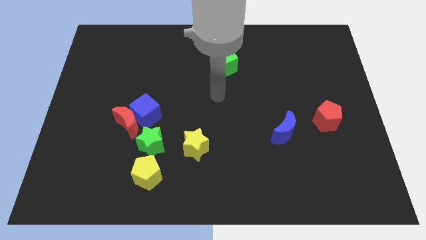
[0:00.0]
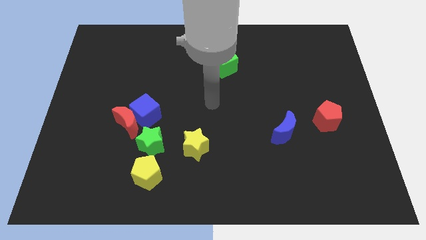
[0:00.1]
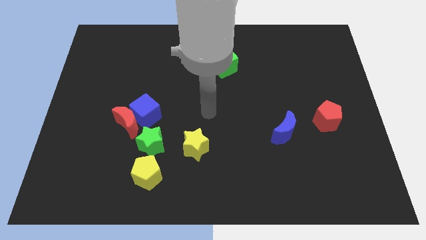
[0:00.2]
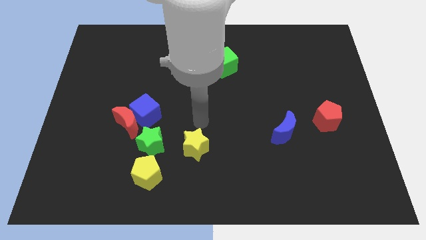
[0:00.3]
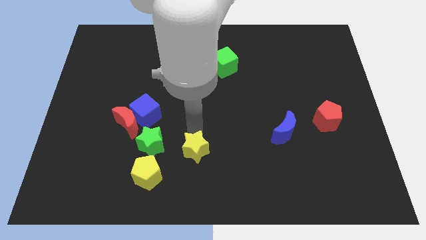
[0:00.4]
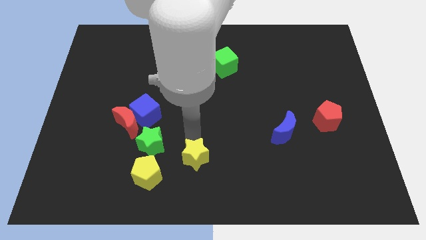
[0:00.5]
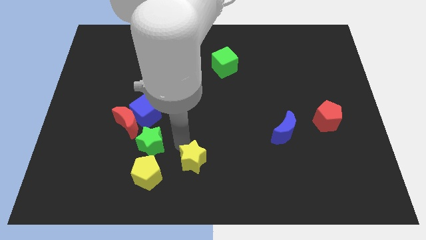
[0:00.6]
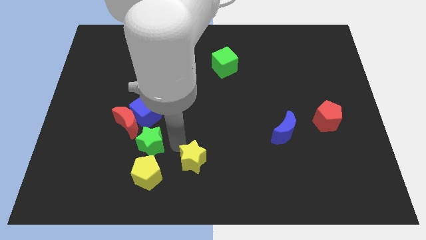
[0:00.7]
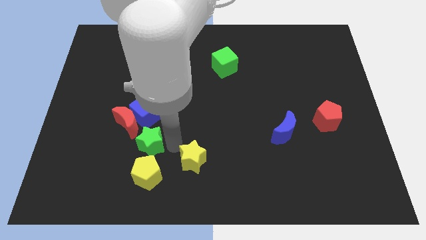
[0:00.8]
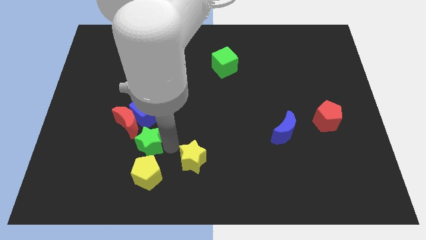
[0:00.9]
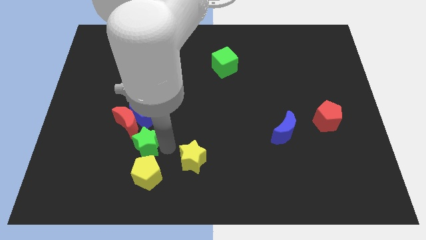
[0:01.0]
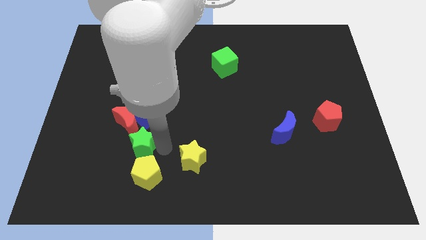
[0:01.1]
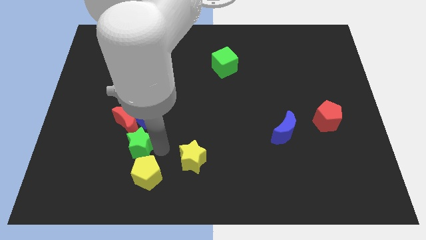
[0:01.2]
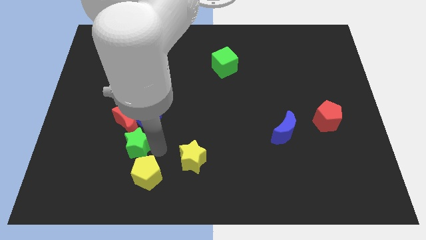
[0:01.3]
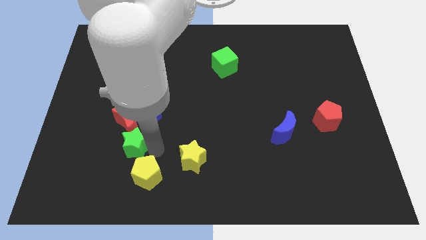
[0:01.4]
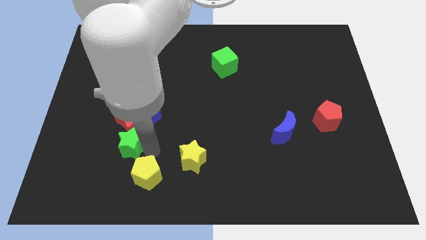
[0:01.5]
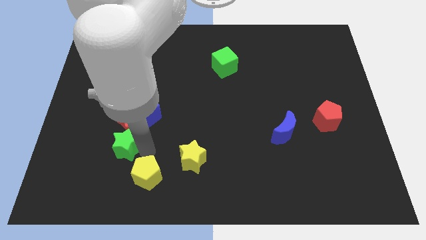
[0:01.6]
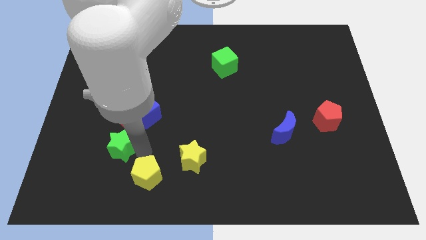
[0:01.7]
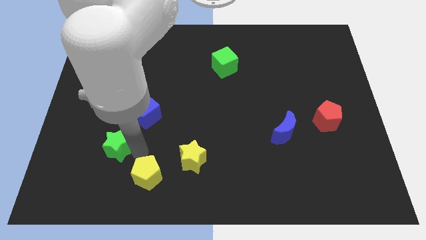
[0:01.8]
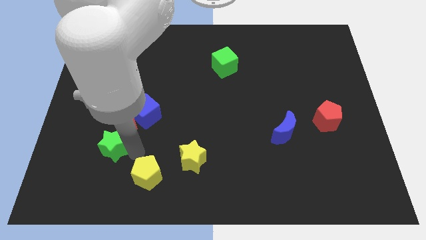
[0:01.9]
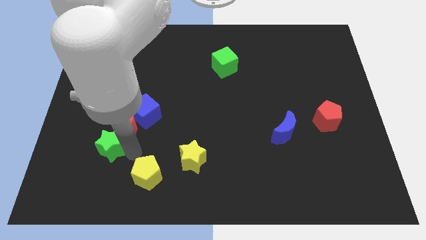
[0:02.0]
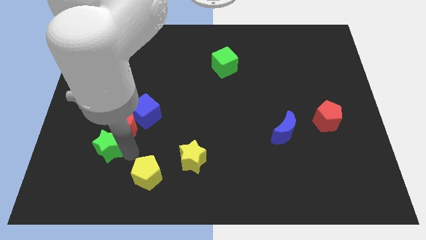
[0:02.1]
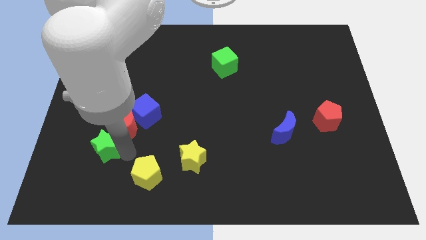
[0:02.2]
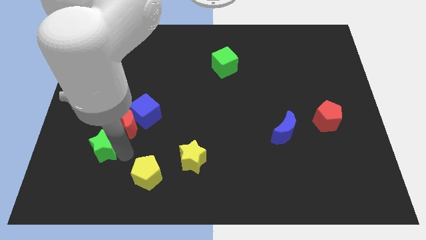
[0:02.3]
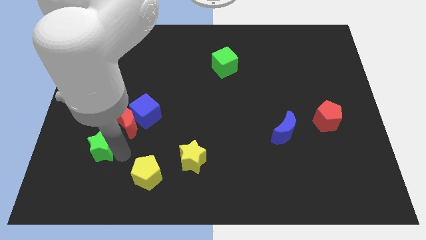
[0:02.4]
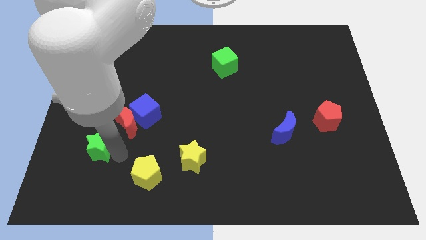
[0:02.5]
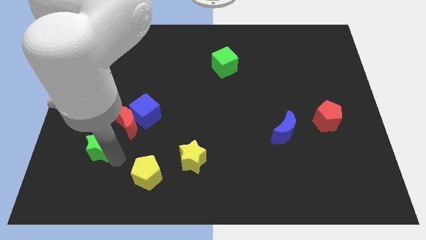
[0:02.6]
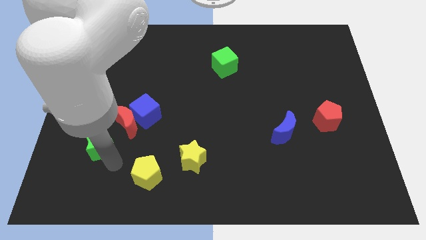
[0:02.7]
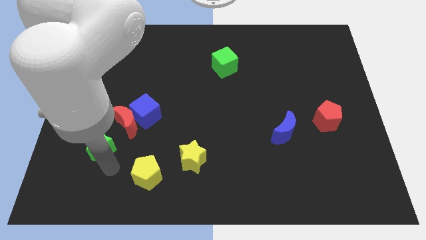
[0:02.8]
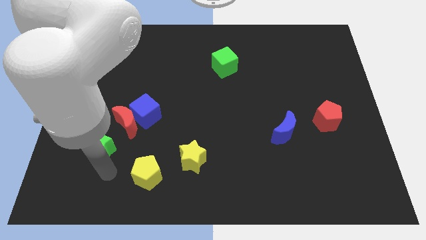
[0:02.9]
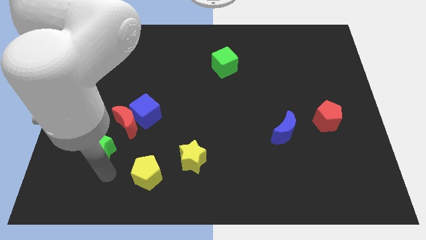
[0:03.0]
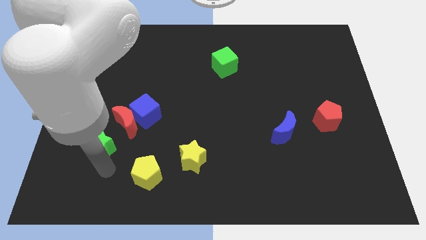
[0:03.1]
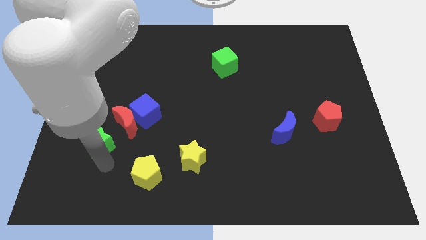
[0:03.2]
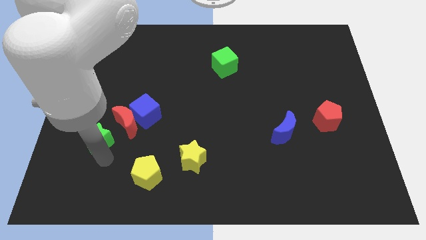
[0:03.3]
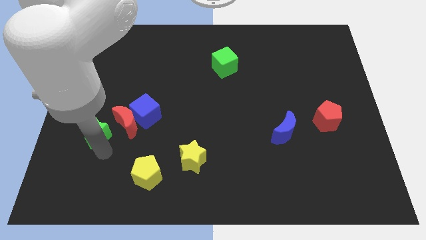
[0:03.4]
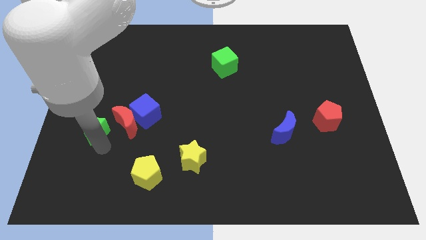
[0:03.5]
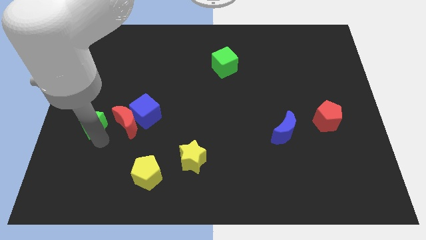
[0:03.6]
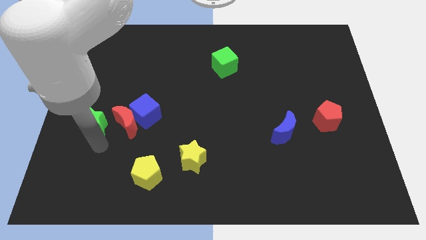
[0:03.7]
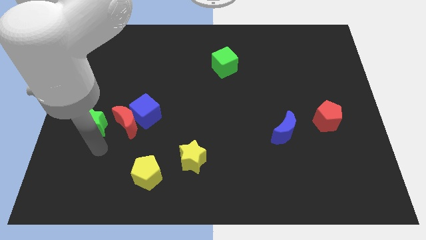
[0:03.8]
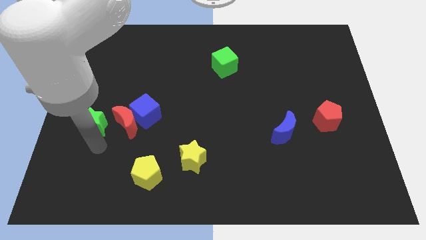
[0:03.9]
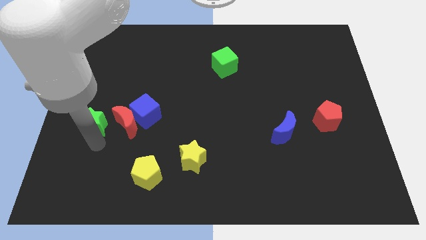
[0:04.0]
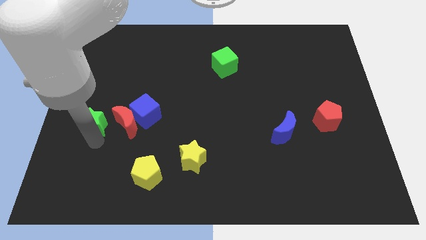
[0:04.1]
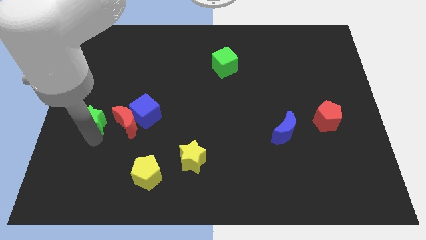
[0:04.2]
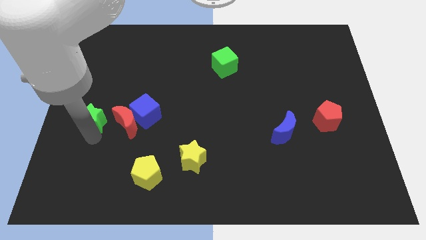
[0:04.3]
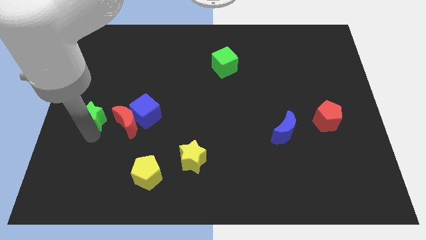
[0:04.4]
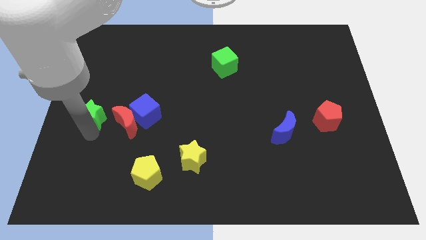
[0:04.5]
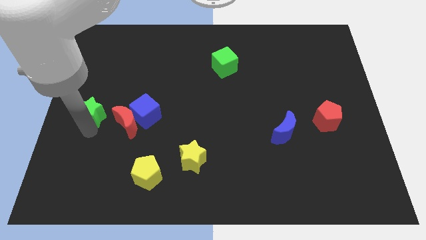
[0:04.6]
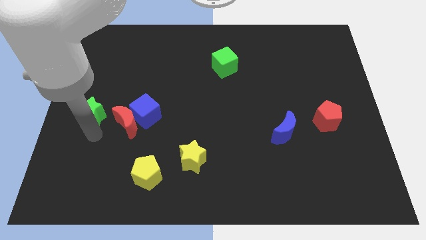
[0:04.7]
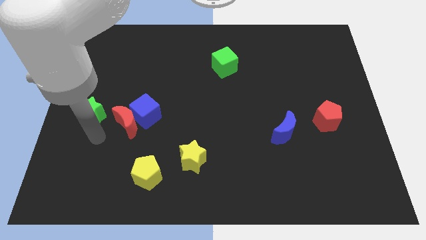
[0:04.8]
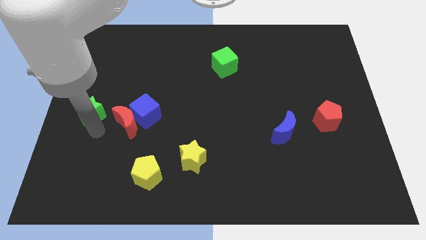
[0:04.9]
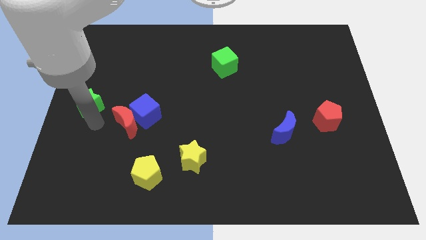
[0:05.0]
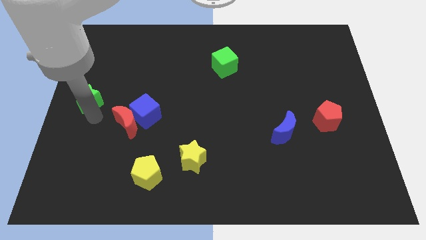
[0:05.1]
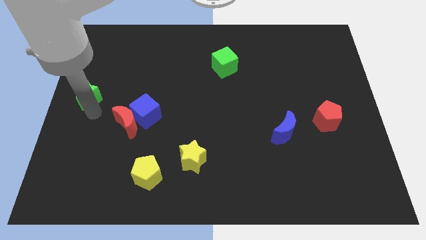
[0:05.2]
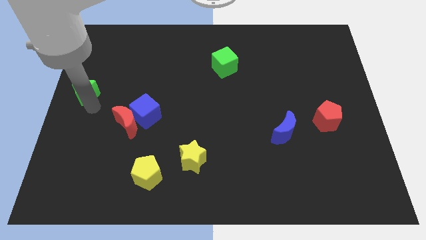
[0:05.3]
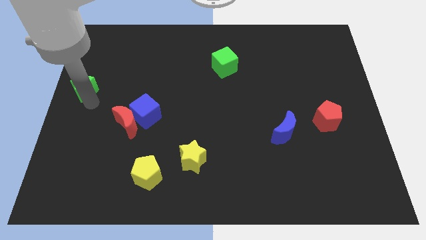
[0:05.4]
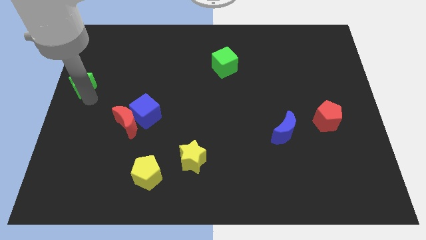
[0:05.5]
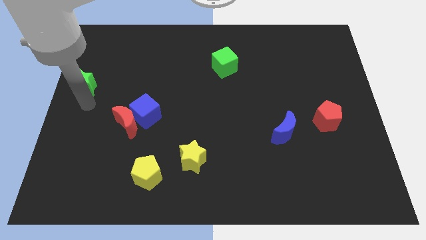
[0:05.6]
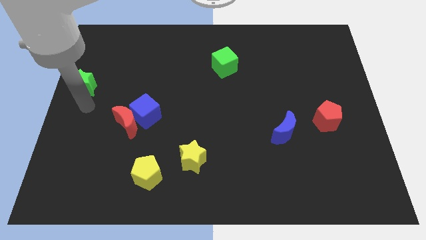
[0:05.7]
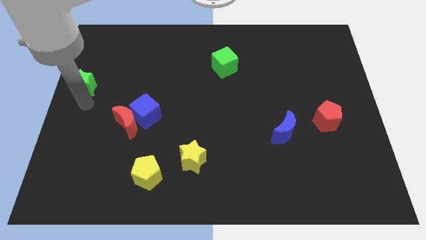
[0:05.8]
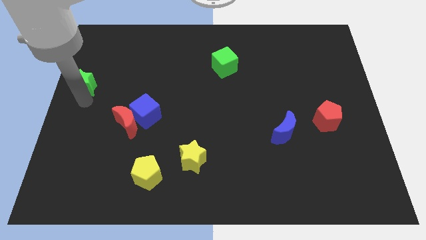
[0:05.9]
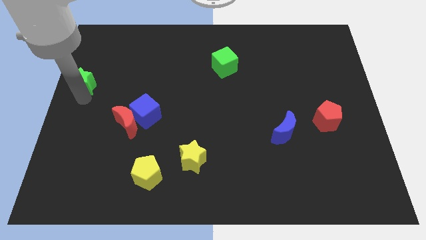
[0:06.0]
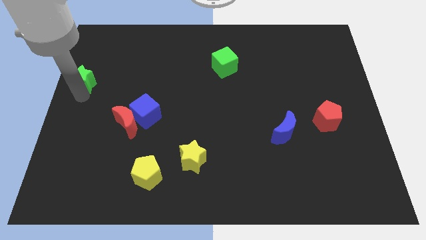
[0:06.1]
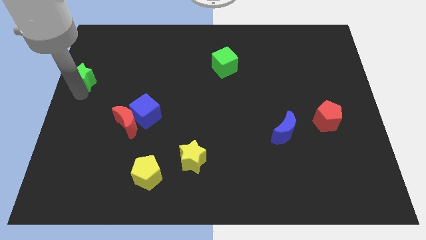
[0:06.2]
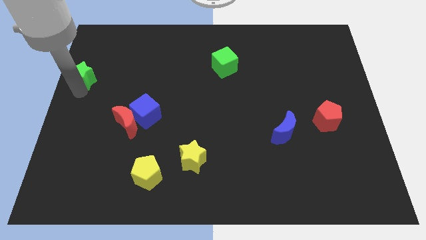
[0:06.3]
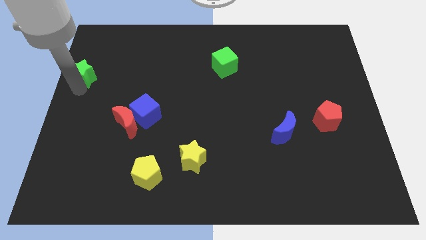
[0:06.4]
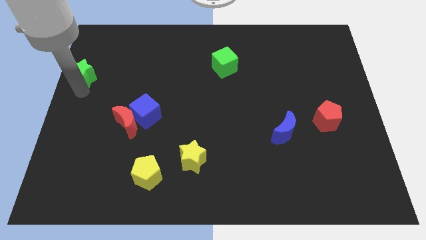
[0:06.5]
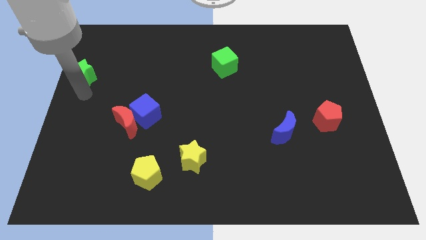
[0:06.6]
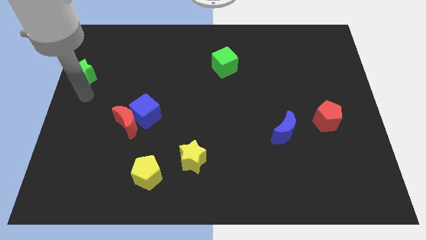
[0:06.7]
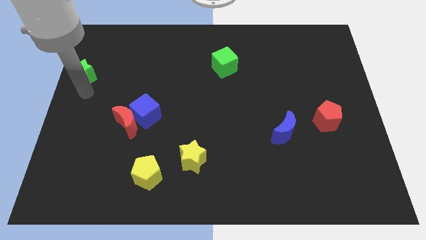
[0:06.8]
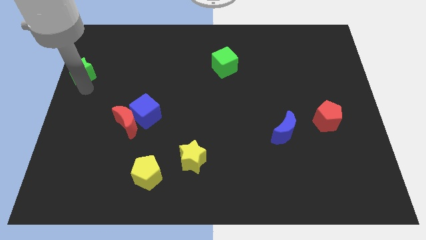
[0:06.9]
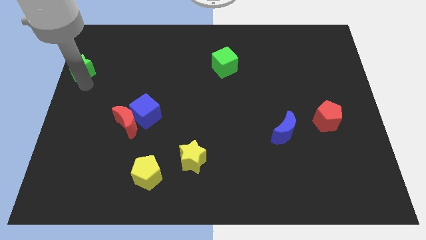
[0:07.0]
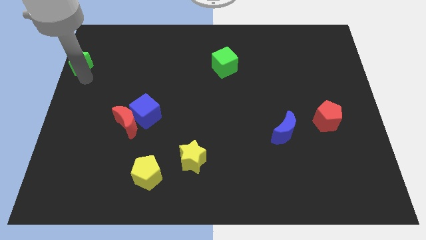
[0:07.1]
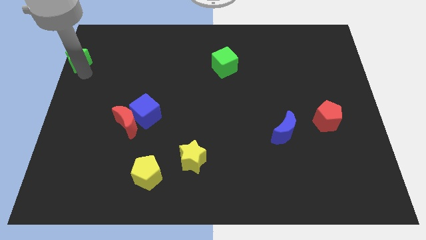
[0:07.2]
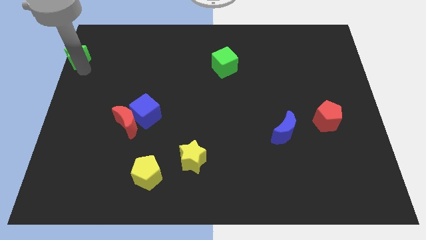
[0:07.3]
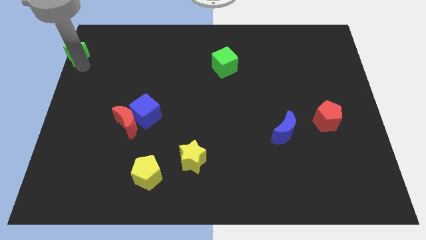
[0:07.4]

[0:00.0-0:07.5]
move the green star to the top left
